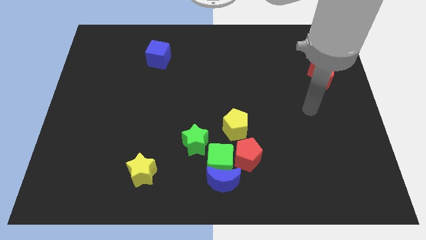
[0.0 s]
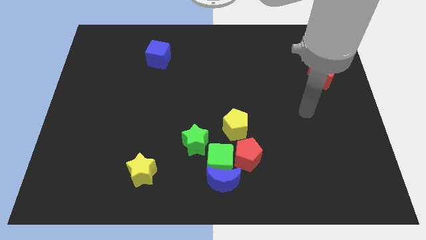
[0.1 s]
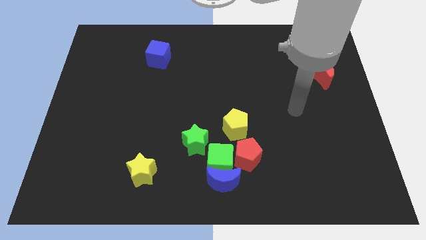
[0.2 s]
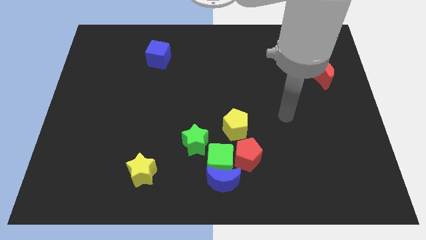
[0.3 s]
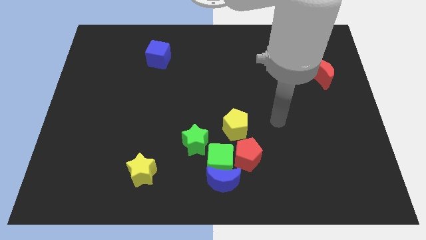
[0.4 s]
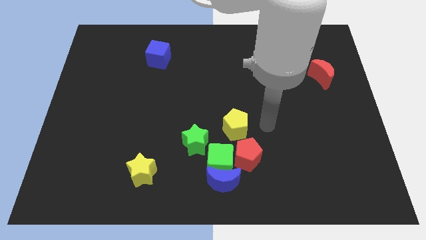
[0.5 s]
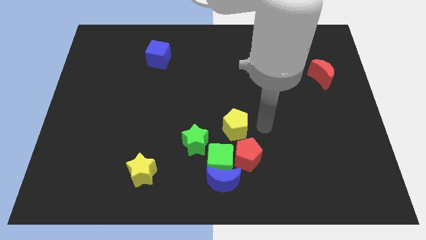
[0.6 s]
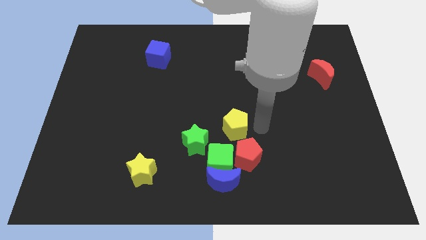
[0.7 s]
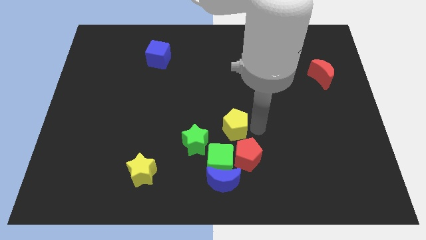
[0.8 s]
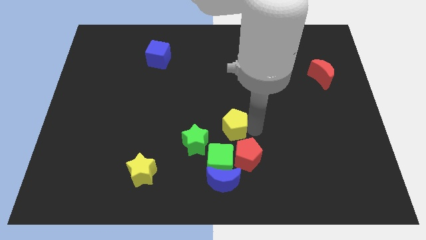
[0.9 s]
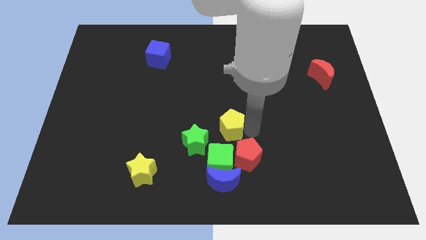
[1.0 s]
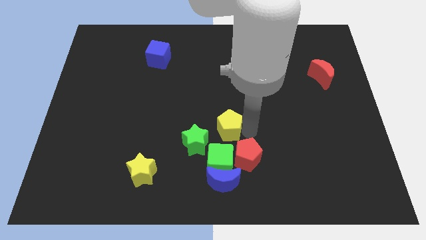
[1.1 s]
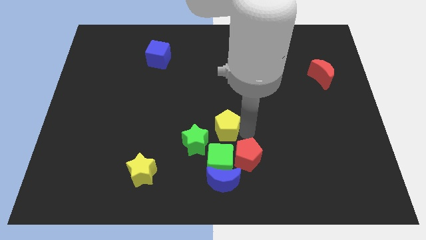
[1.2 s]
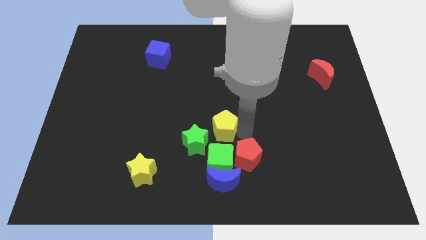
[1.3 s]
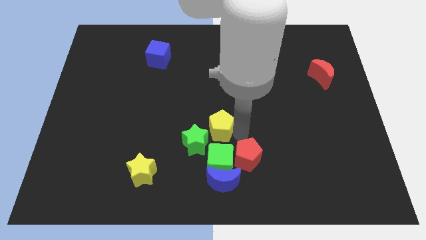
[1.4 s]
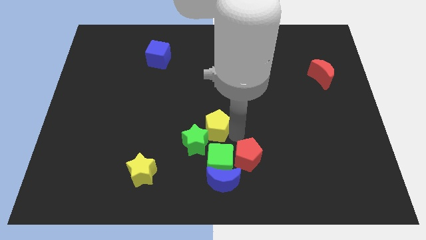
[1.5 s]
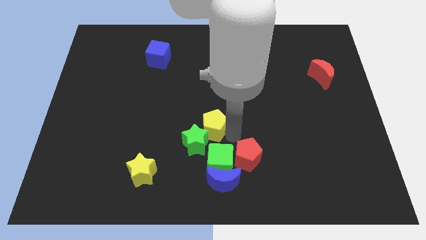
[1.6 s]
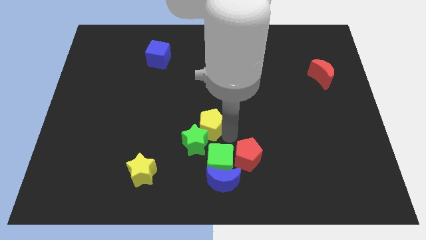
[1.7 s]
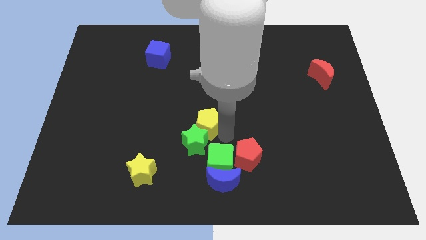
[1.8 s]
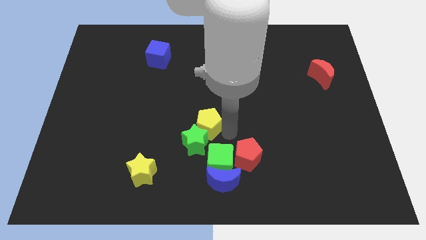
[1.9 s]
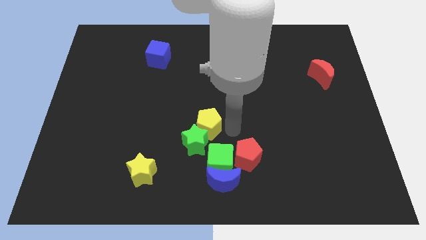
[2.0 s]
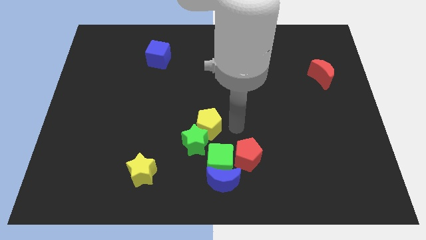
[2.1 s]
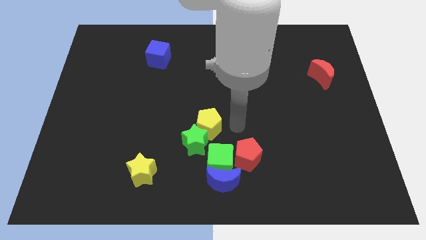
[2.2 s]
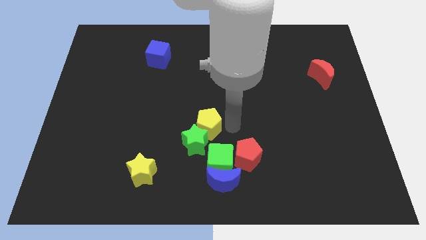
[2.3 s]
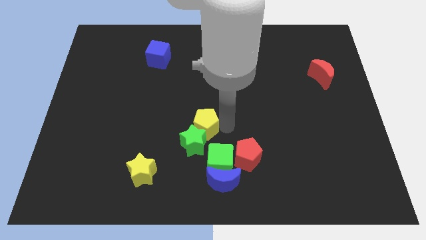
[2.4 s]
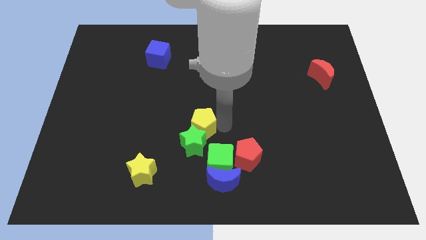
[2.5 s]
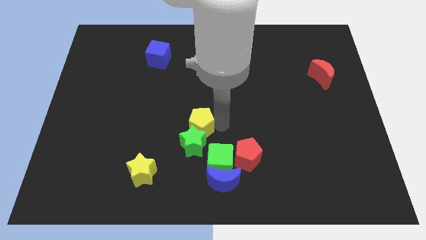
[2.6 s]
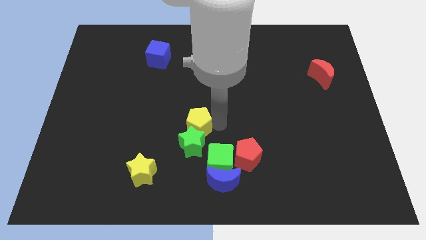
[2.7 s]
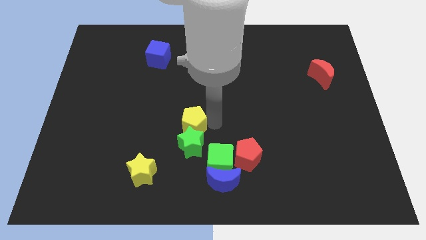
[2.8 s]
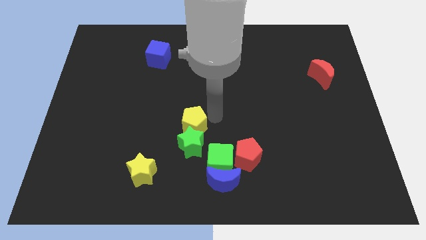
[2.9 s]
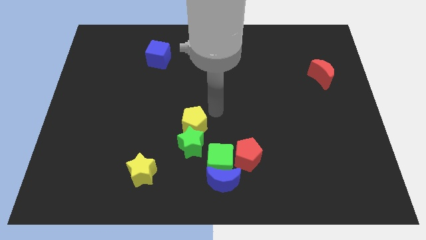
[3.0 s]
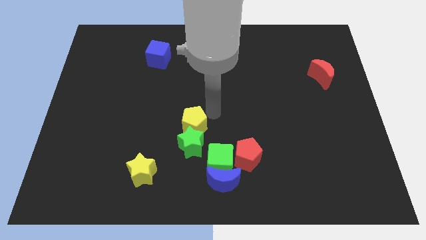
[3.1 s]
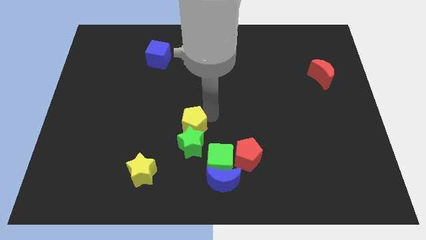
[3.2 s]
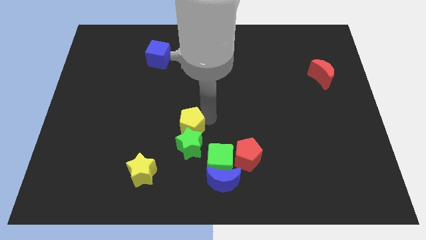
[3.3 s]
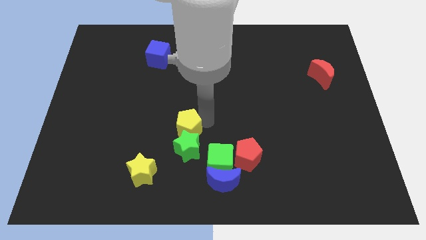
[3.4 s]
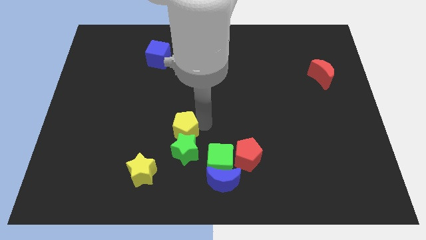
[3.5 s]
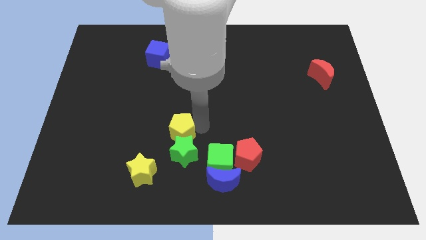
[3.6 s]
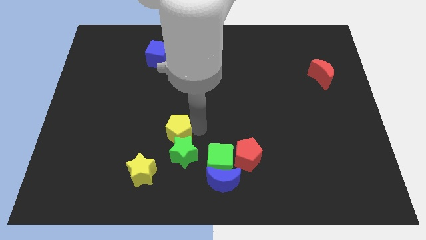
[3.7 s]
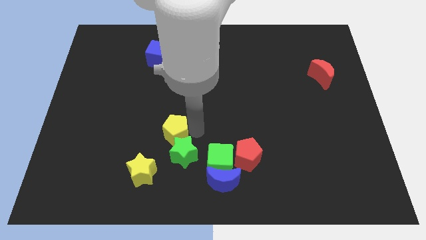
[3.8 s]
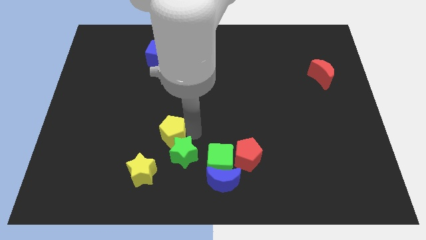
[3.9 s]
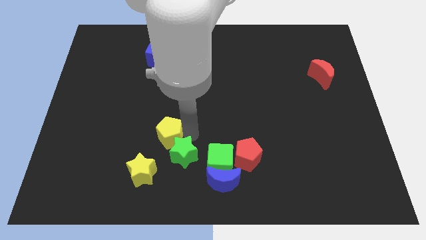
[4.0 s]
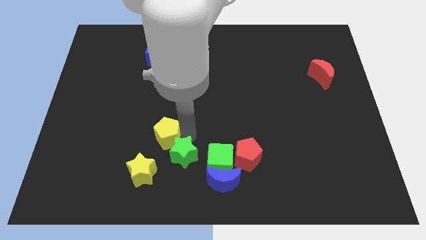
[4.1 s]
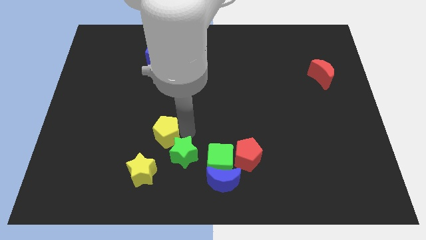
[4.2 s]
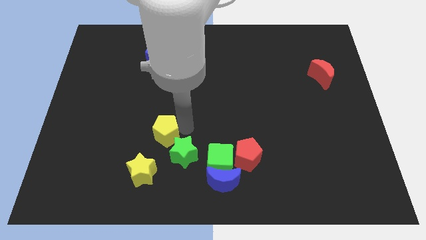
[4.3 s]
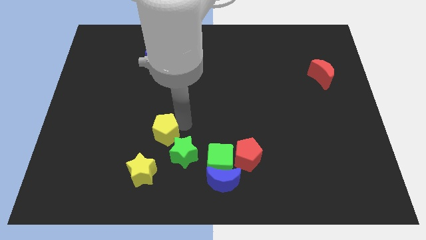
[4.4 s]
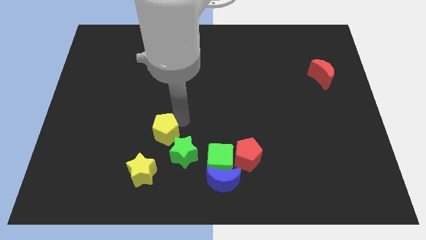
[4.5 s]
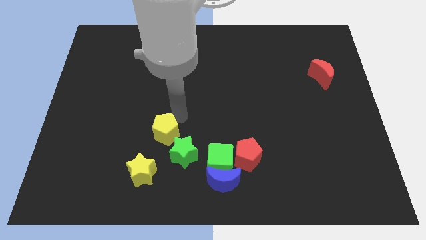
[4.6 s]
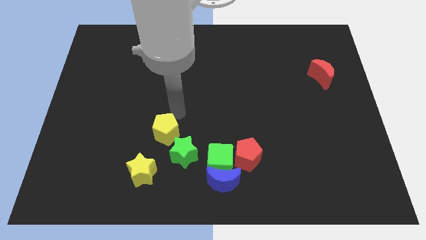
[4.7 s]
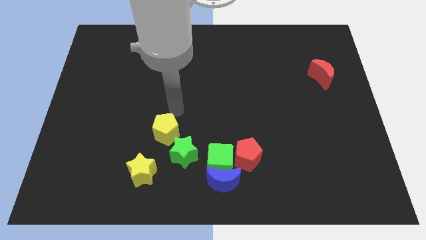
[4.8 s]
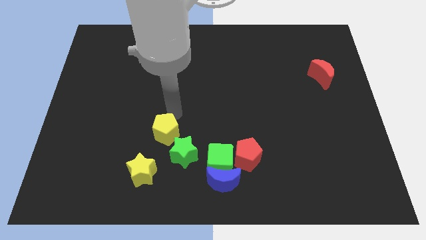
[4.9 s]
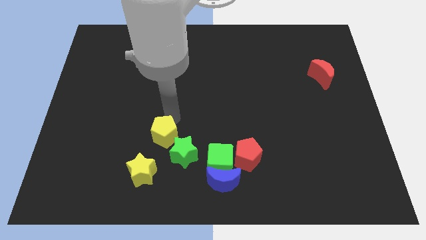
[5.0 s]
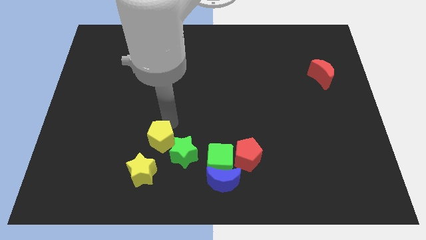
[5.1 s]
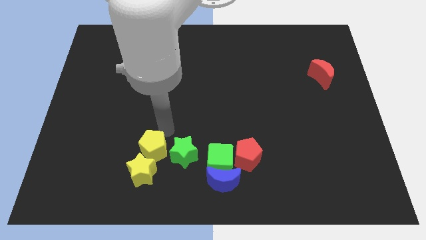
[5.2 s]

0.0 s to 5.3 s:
slide the yellow pentagon to the yellow star

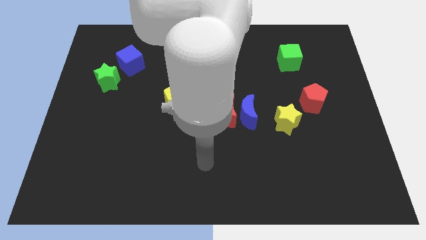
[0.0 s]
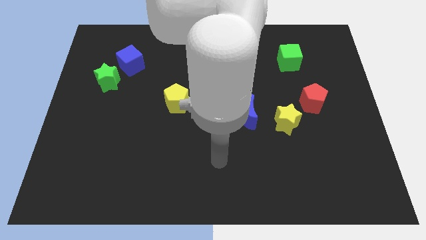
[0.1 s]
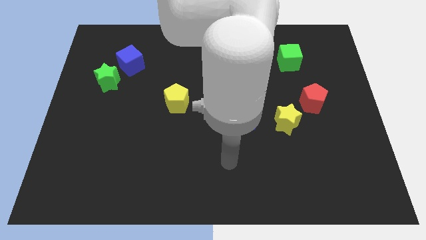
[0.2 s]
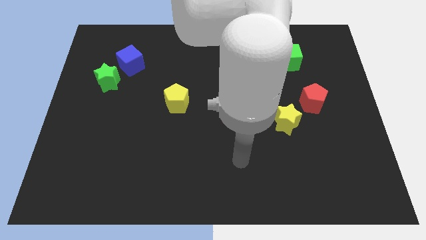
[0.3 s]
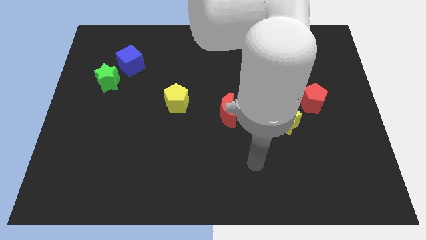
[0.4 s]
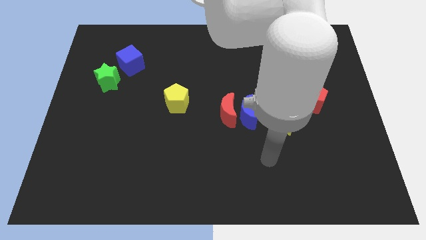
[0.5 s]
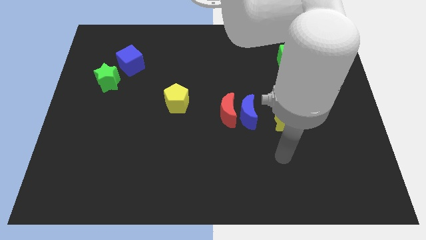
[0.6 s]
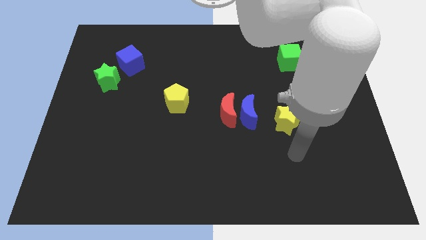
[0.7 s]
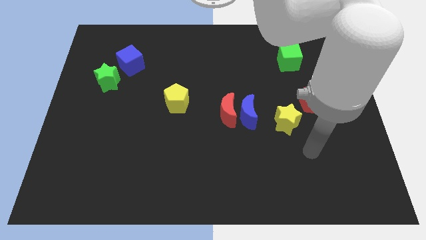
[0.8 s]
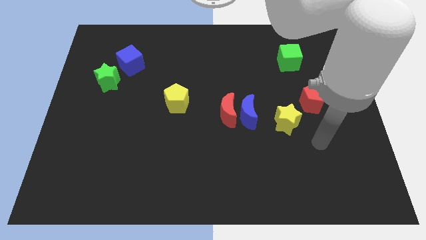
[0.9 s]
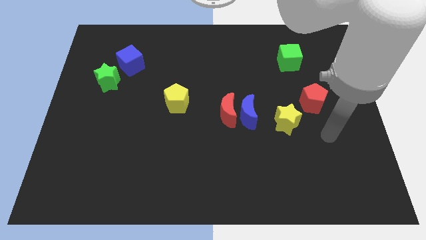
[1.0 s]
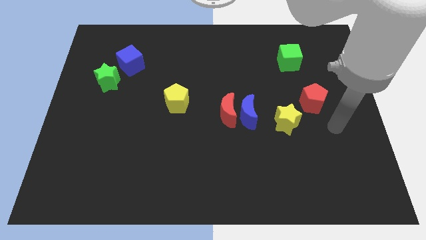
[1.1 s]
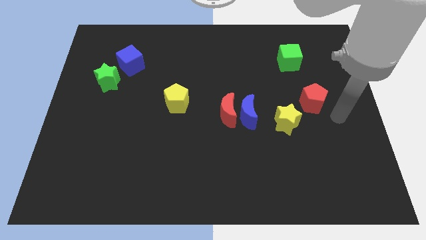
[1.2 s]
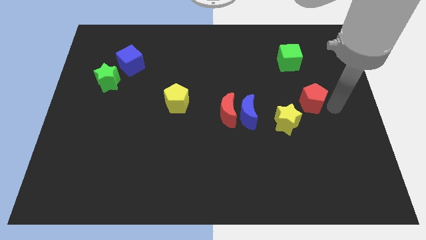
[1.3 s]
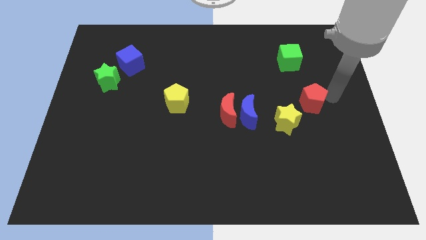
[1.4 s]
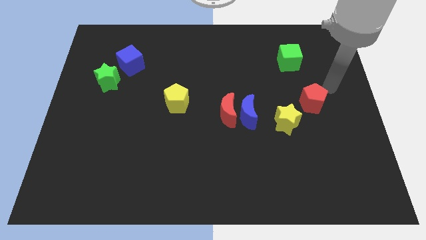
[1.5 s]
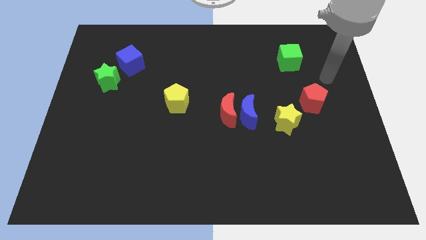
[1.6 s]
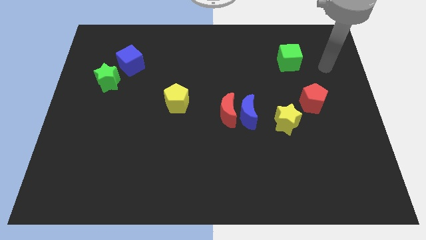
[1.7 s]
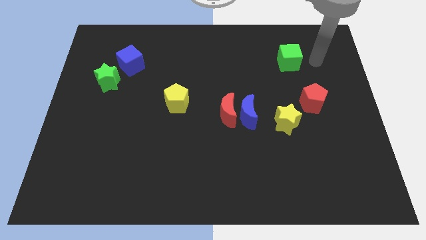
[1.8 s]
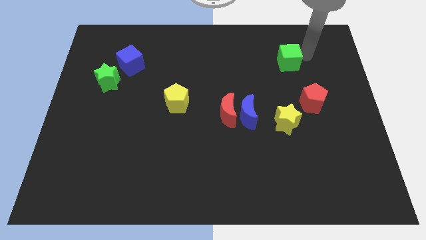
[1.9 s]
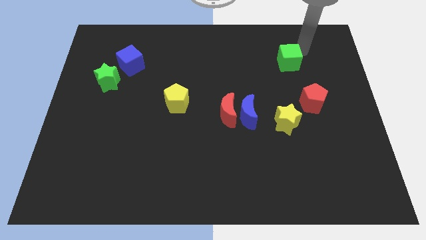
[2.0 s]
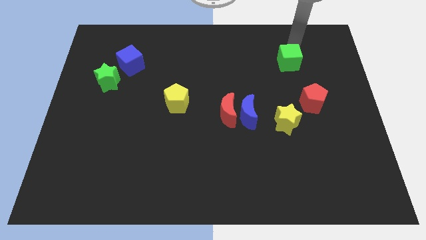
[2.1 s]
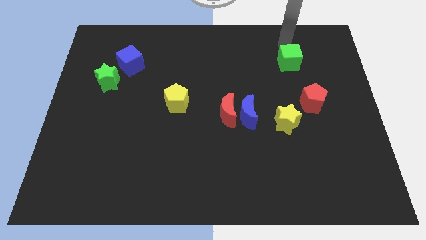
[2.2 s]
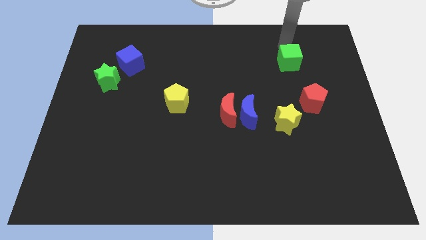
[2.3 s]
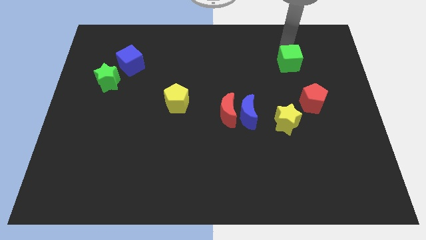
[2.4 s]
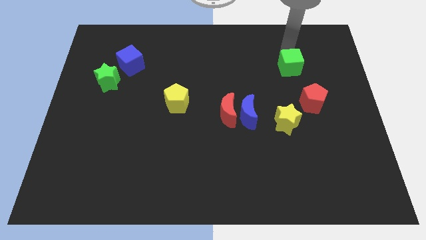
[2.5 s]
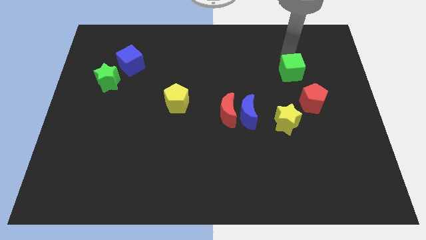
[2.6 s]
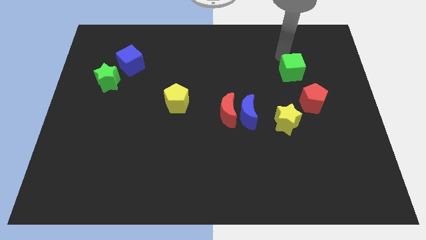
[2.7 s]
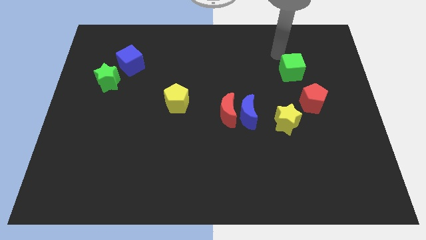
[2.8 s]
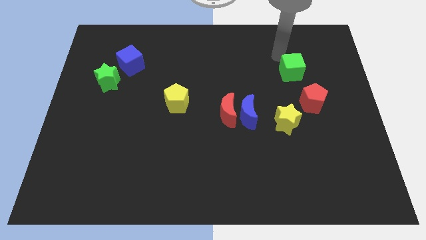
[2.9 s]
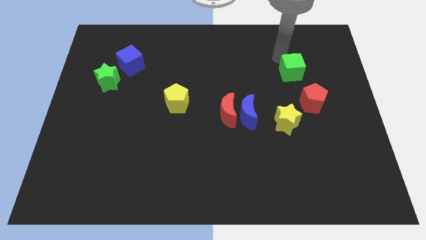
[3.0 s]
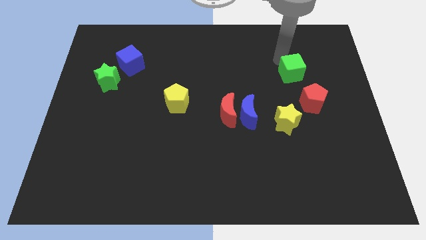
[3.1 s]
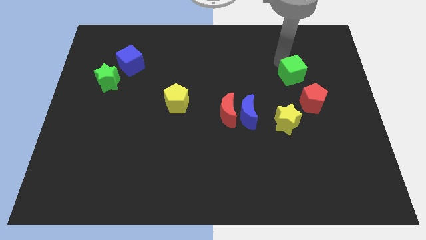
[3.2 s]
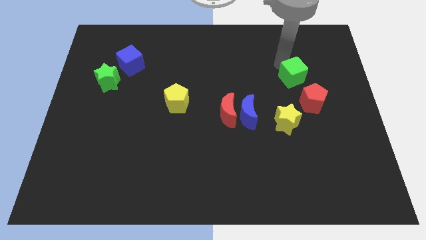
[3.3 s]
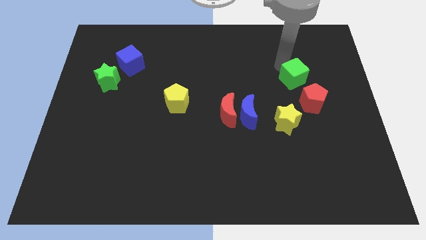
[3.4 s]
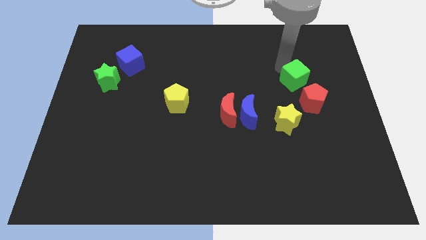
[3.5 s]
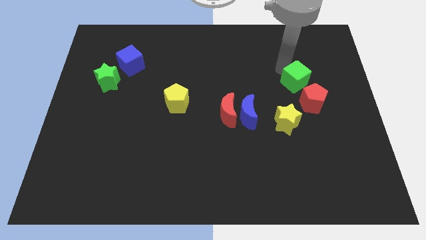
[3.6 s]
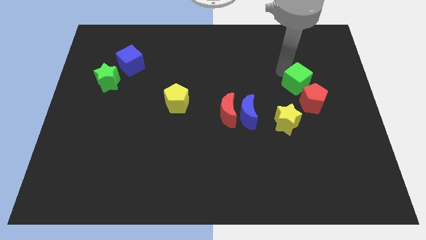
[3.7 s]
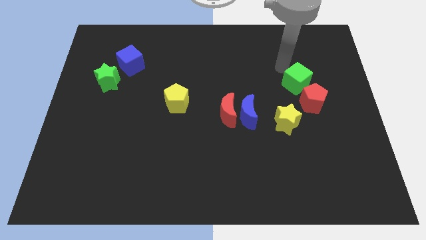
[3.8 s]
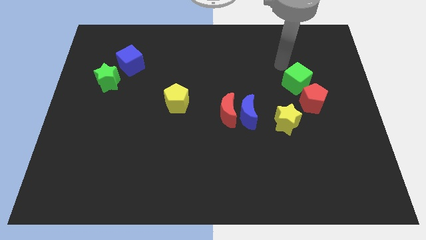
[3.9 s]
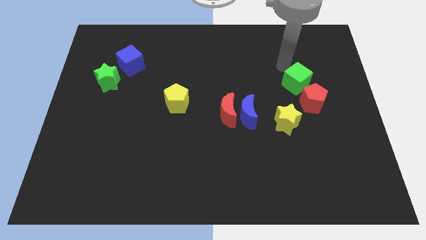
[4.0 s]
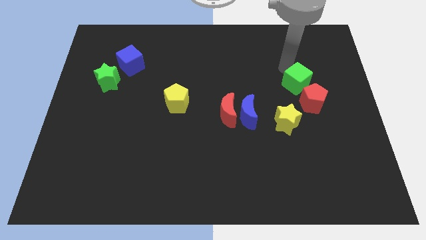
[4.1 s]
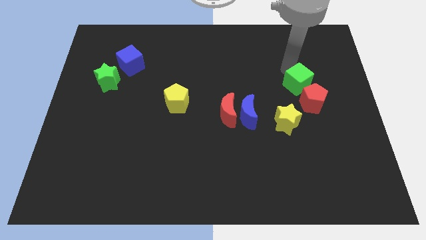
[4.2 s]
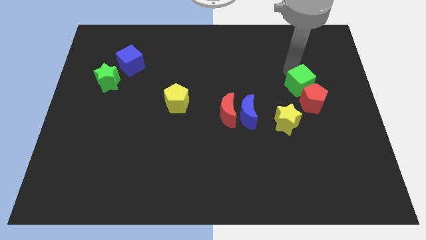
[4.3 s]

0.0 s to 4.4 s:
move the green cube to the red pentagon
